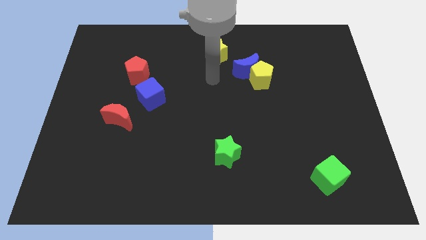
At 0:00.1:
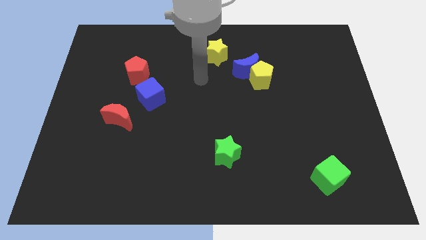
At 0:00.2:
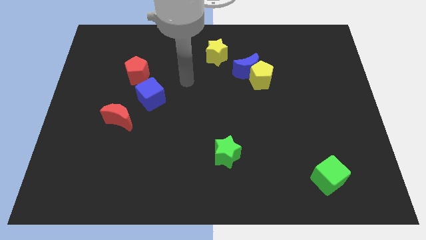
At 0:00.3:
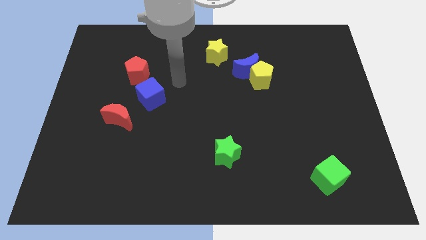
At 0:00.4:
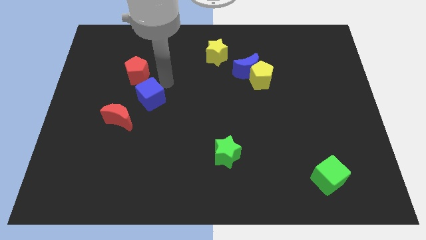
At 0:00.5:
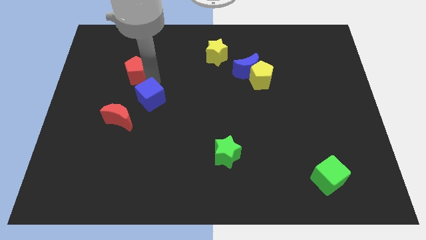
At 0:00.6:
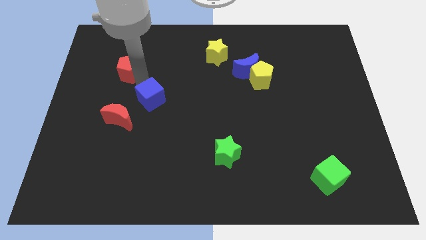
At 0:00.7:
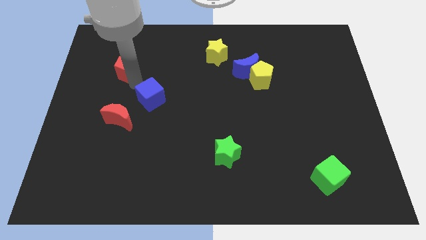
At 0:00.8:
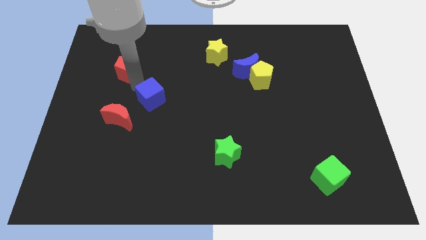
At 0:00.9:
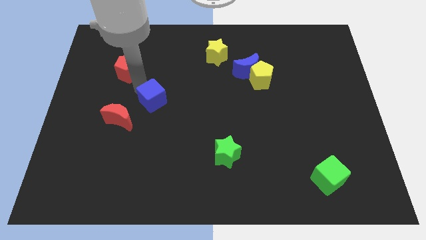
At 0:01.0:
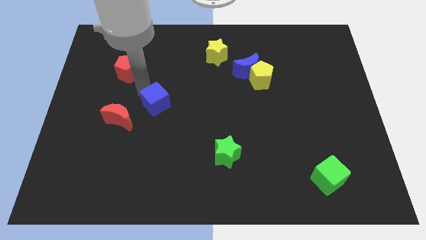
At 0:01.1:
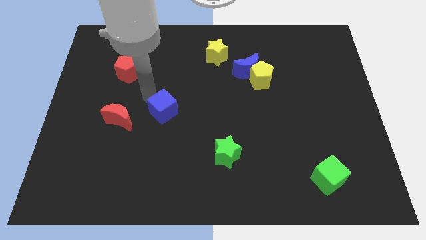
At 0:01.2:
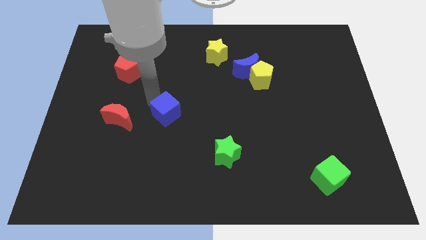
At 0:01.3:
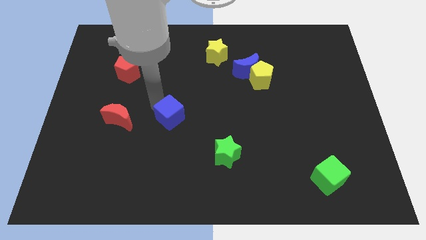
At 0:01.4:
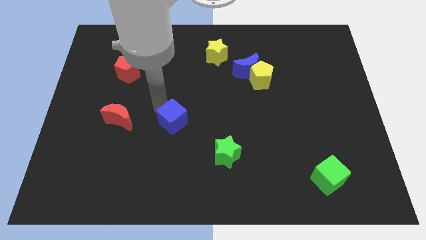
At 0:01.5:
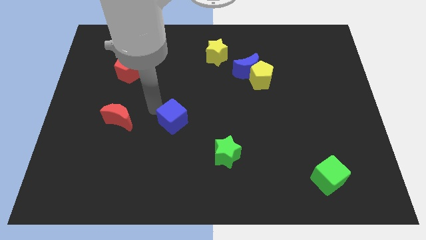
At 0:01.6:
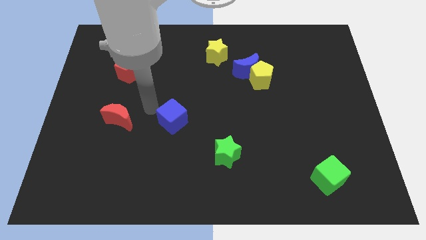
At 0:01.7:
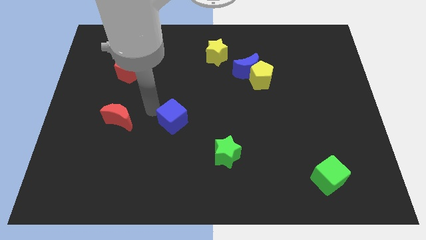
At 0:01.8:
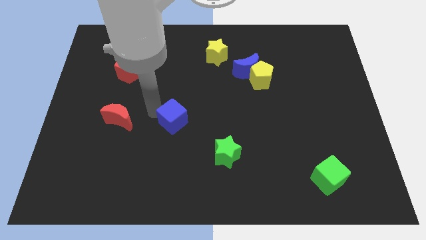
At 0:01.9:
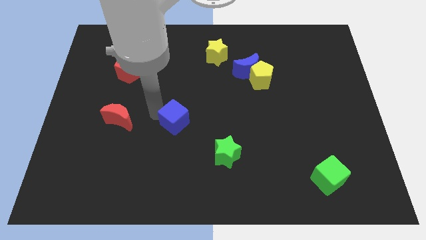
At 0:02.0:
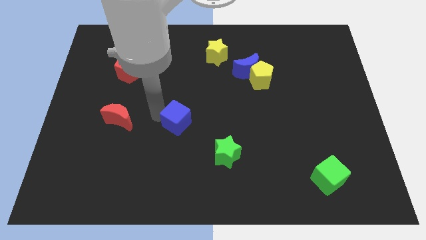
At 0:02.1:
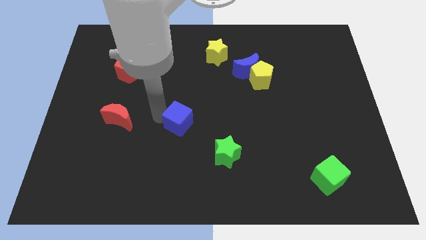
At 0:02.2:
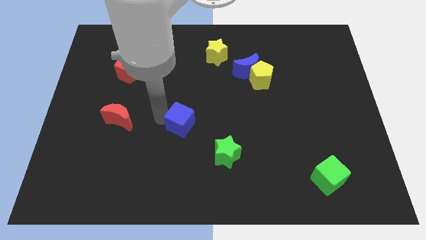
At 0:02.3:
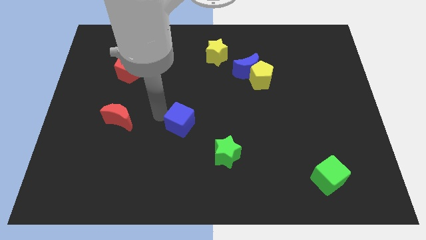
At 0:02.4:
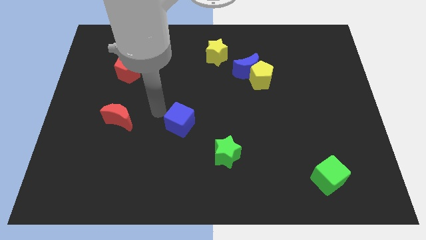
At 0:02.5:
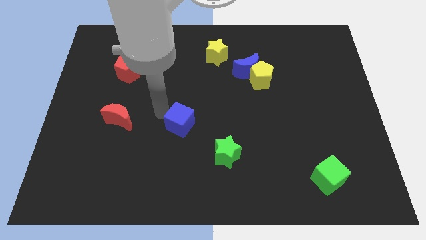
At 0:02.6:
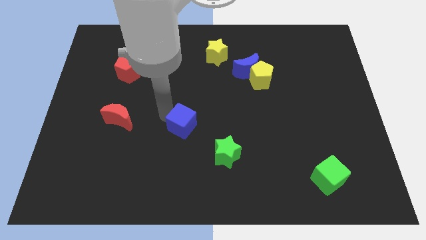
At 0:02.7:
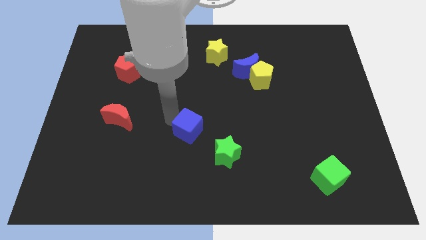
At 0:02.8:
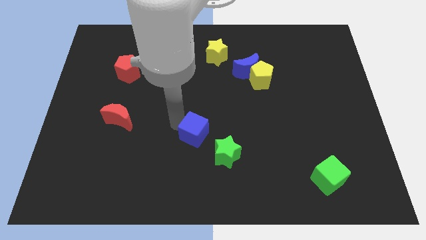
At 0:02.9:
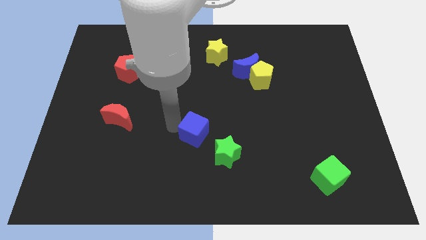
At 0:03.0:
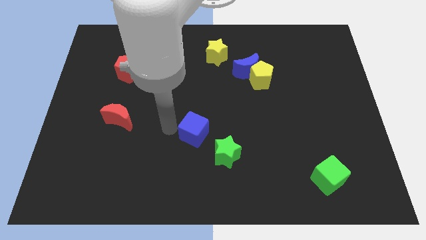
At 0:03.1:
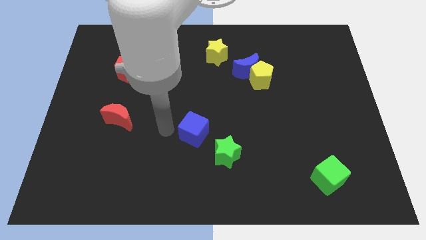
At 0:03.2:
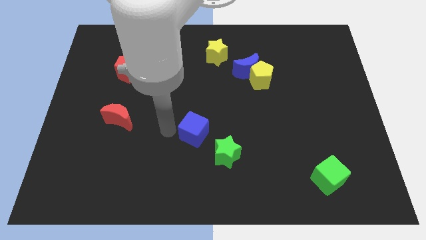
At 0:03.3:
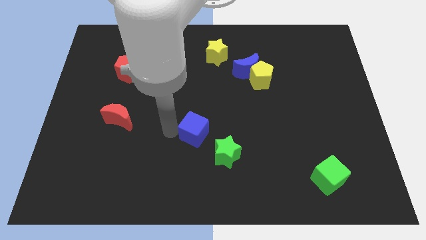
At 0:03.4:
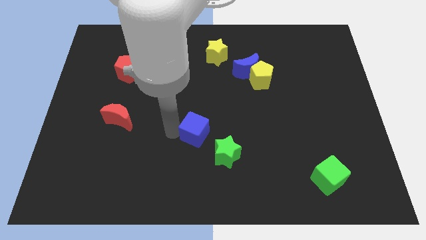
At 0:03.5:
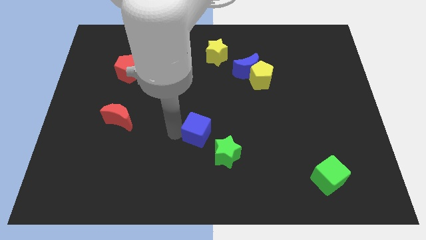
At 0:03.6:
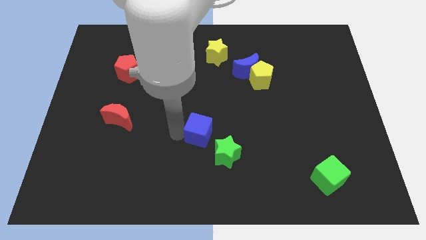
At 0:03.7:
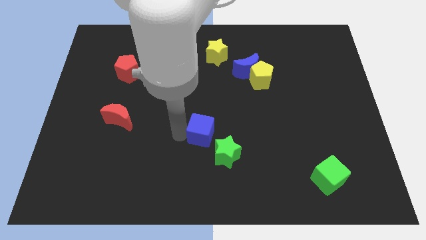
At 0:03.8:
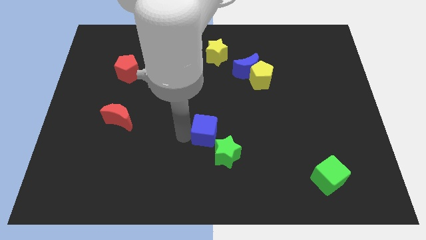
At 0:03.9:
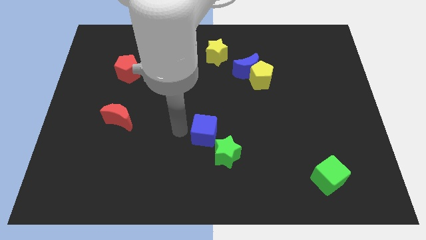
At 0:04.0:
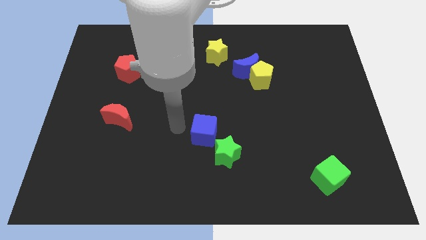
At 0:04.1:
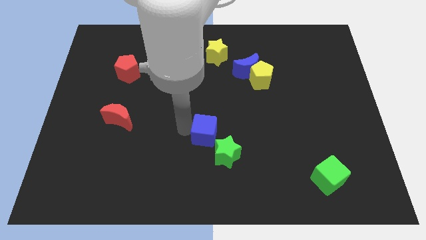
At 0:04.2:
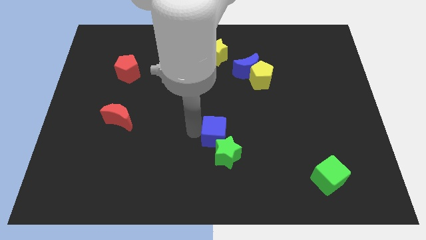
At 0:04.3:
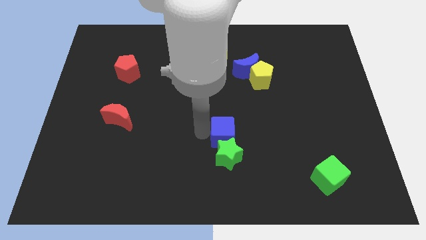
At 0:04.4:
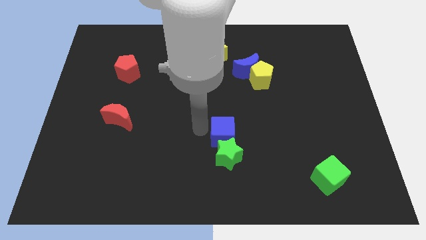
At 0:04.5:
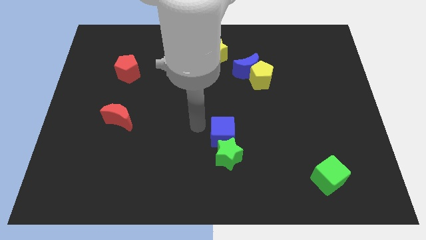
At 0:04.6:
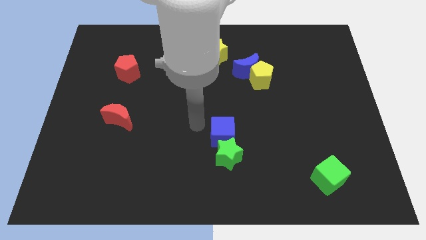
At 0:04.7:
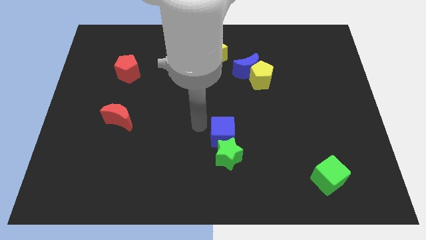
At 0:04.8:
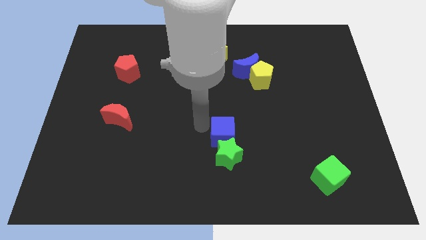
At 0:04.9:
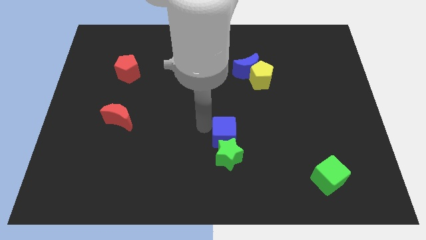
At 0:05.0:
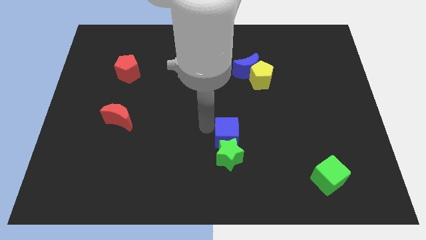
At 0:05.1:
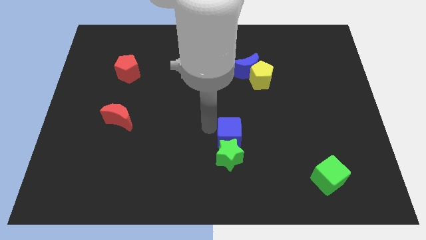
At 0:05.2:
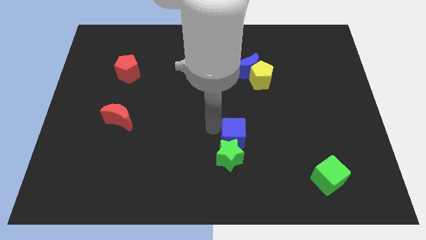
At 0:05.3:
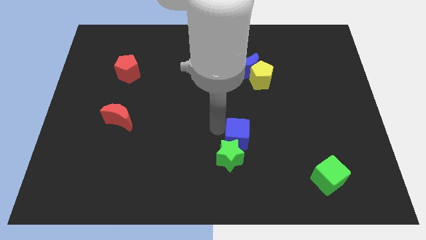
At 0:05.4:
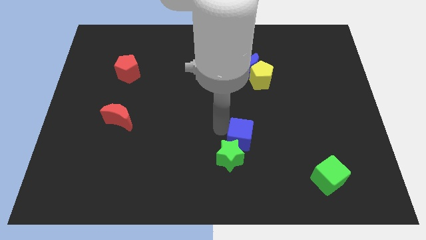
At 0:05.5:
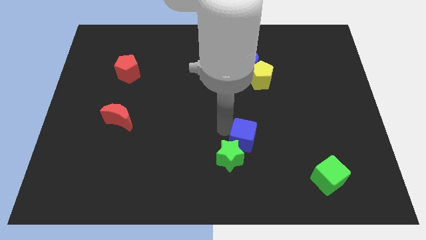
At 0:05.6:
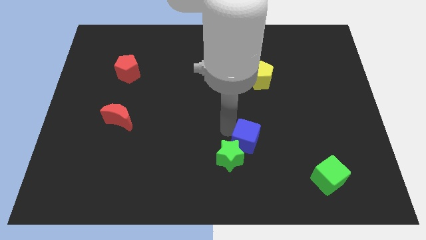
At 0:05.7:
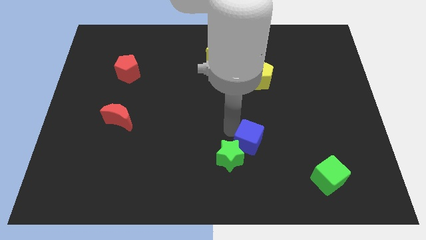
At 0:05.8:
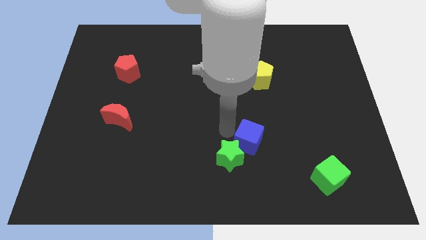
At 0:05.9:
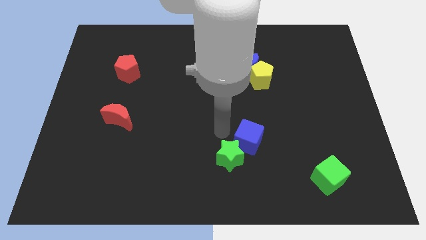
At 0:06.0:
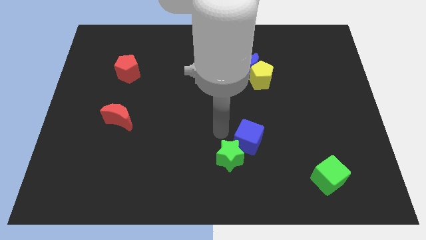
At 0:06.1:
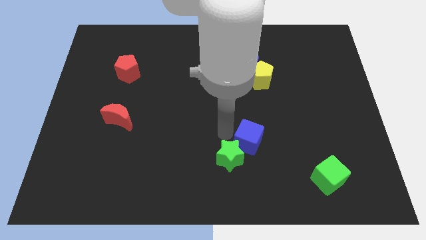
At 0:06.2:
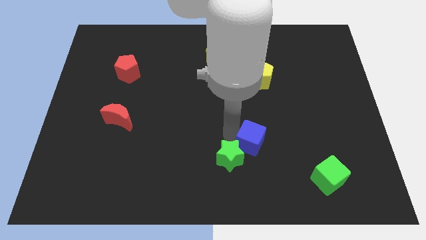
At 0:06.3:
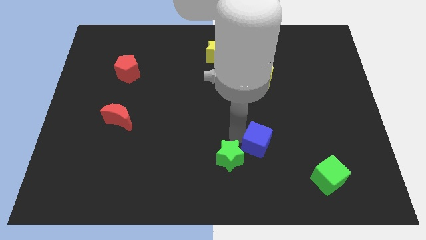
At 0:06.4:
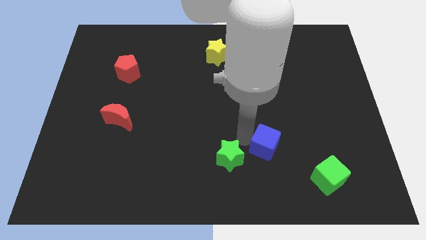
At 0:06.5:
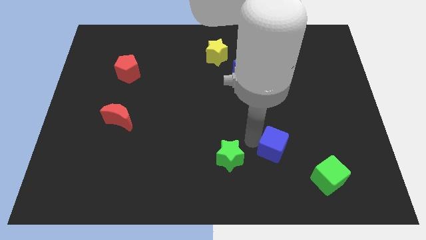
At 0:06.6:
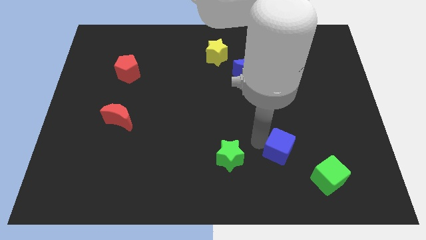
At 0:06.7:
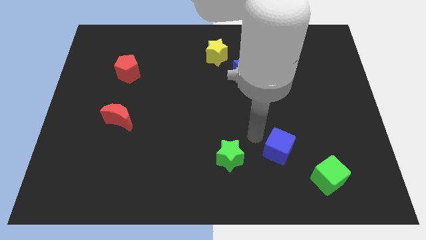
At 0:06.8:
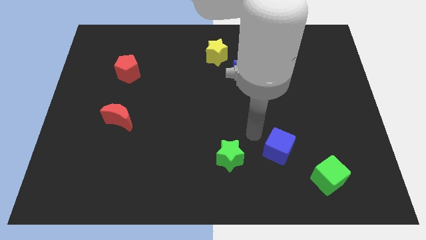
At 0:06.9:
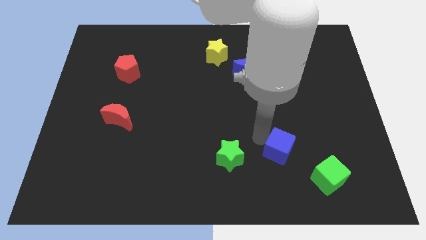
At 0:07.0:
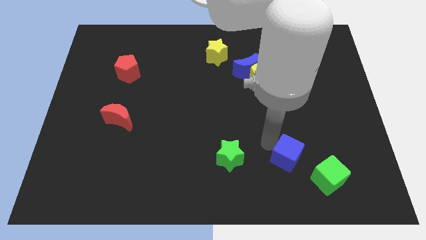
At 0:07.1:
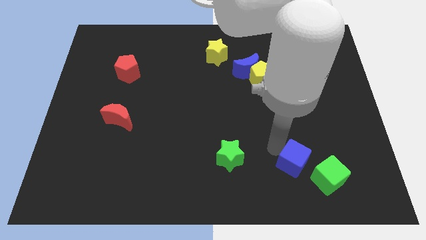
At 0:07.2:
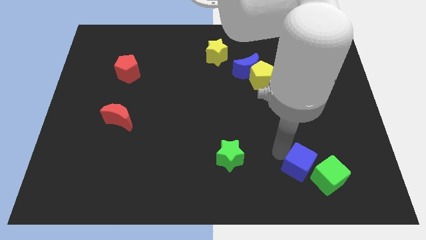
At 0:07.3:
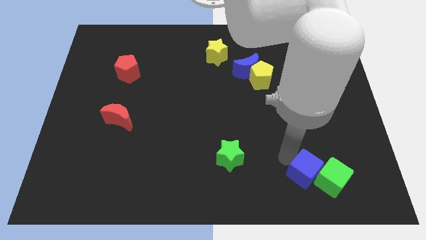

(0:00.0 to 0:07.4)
move the blue cube towards the green cube
